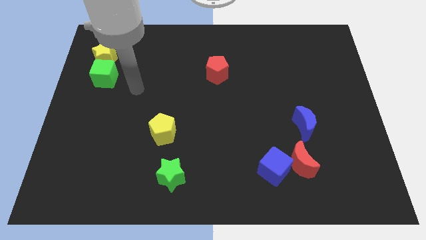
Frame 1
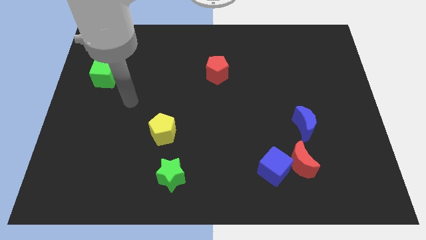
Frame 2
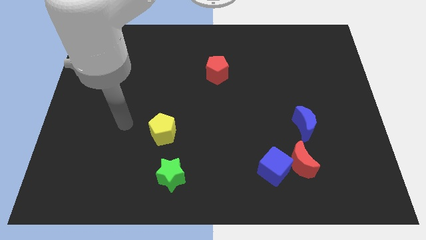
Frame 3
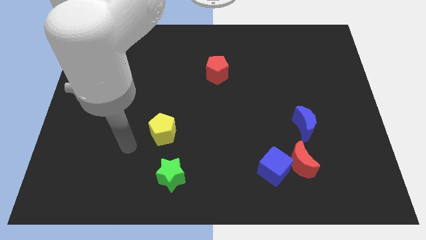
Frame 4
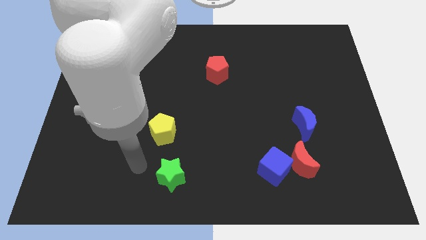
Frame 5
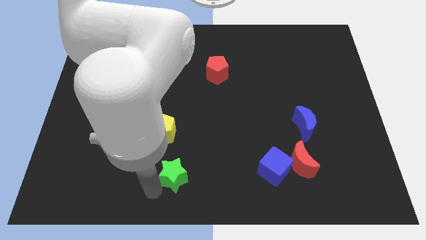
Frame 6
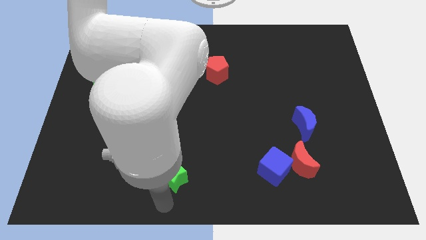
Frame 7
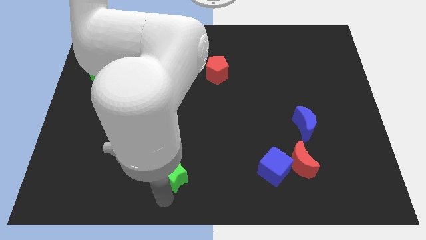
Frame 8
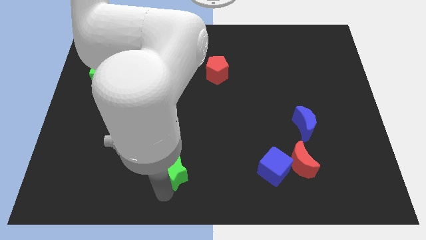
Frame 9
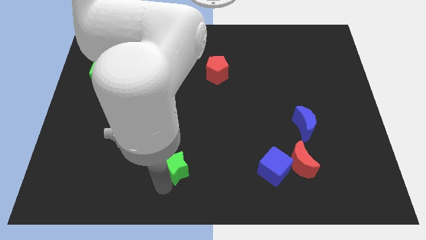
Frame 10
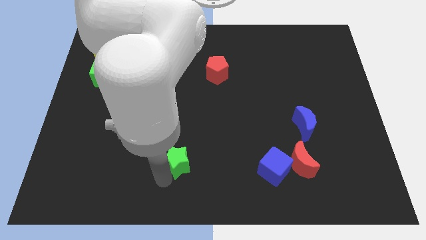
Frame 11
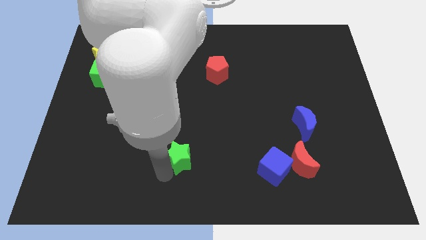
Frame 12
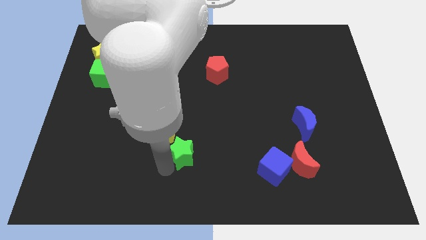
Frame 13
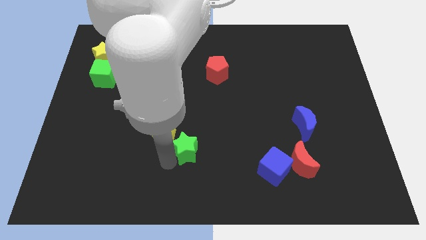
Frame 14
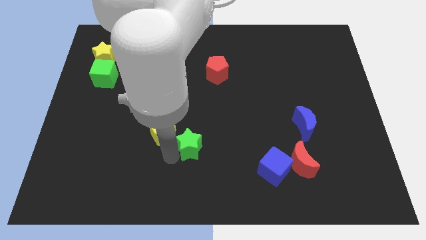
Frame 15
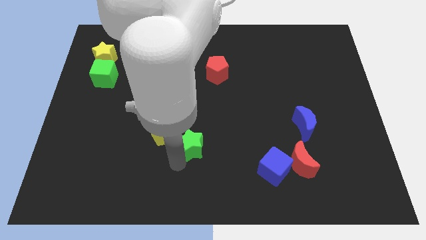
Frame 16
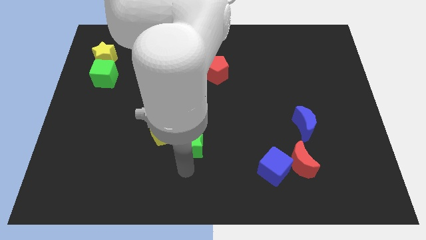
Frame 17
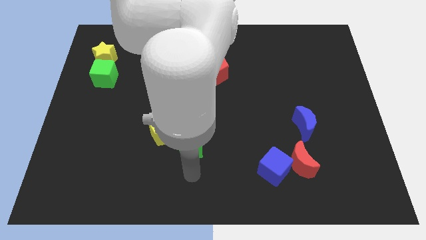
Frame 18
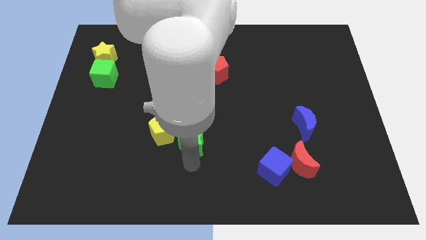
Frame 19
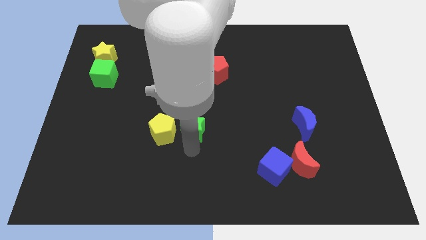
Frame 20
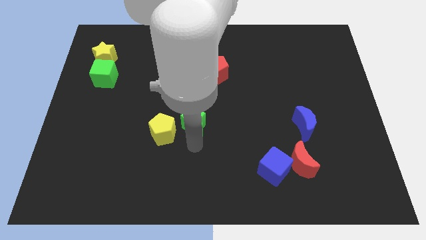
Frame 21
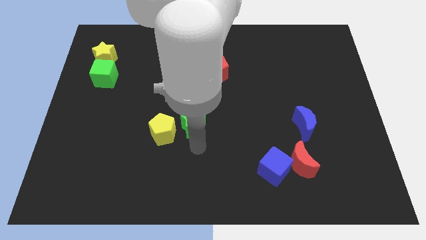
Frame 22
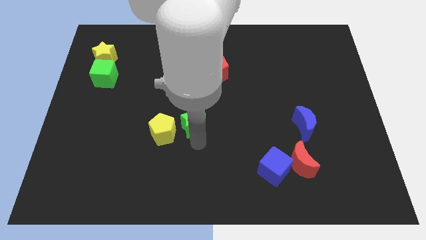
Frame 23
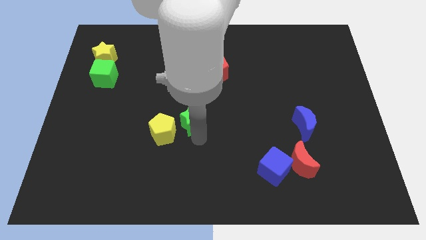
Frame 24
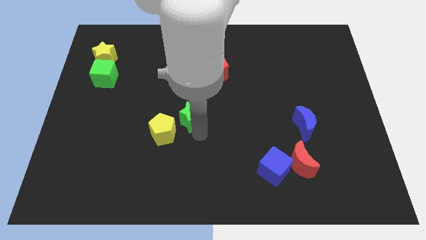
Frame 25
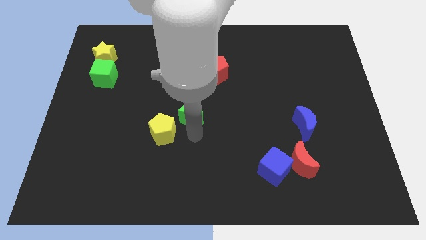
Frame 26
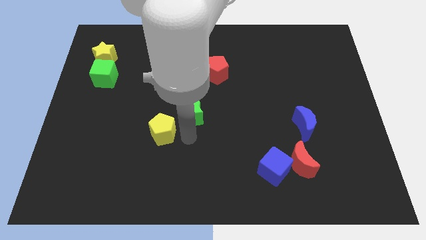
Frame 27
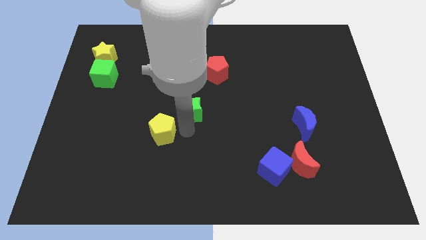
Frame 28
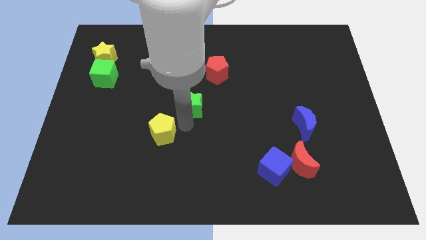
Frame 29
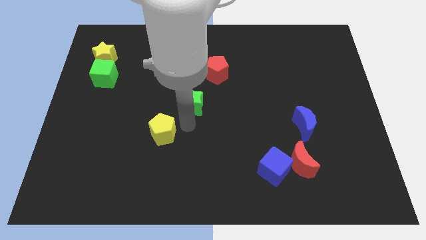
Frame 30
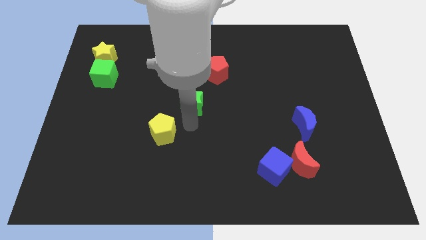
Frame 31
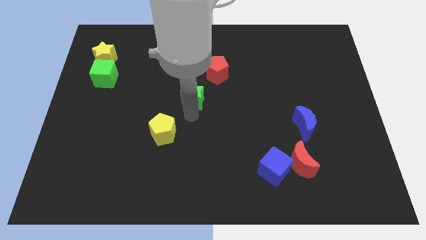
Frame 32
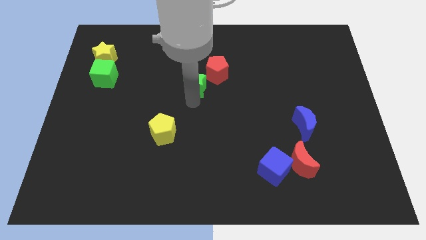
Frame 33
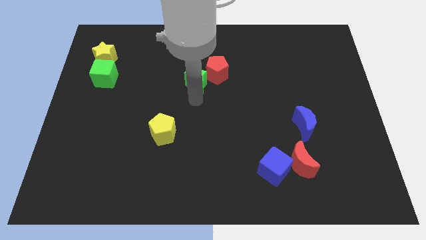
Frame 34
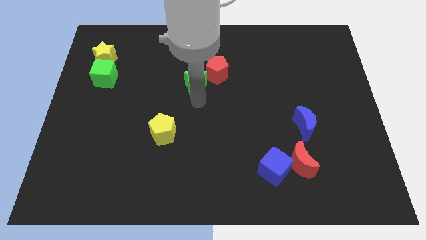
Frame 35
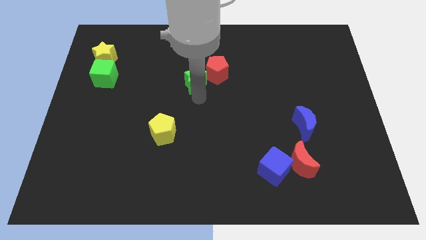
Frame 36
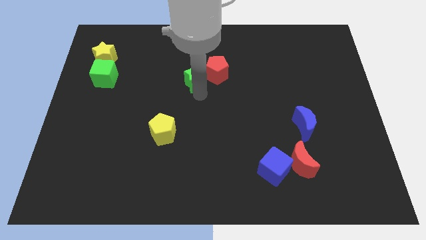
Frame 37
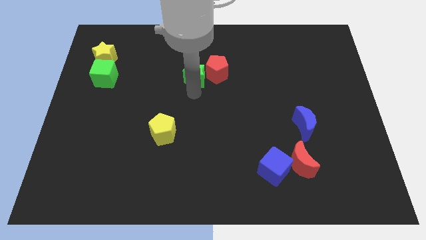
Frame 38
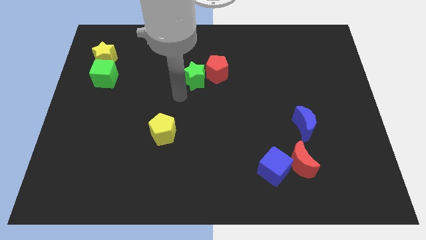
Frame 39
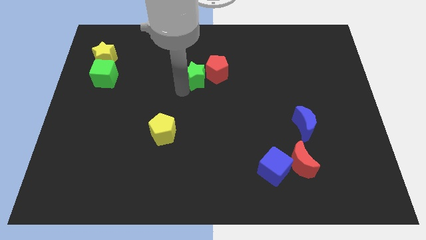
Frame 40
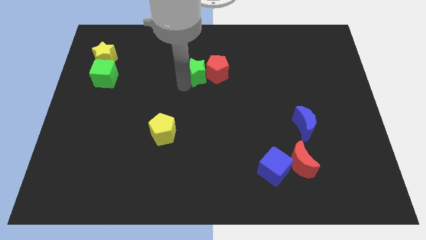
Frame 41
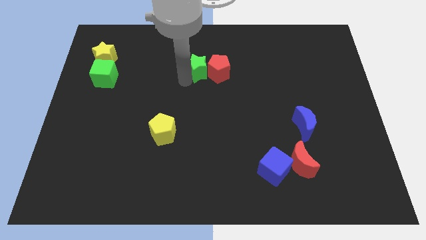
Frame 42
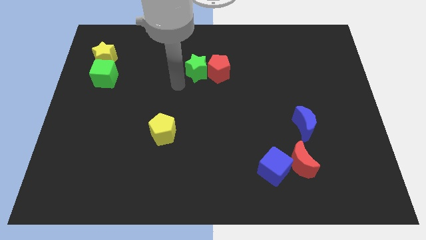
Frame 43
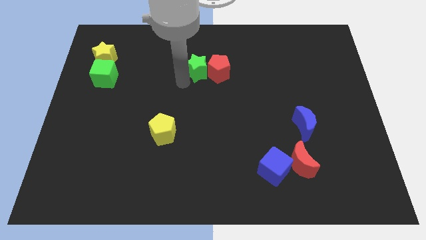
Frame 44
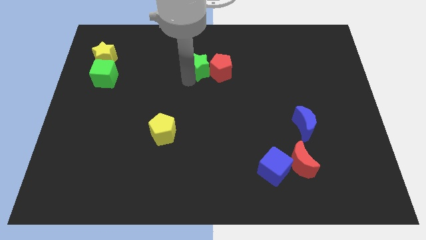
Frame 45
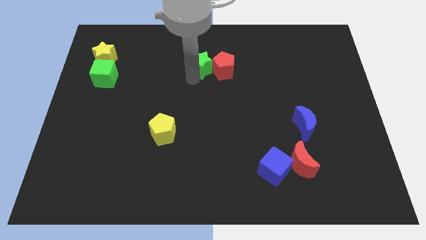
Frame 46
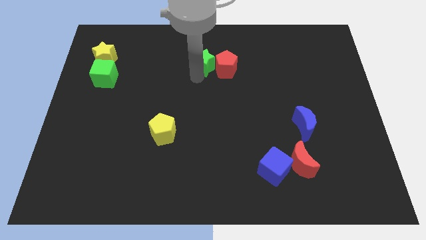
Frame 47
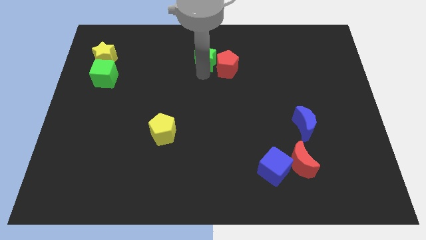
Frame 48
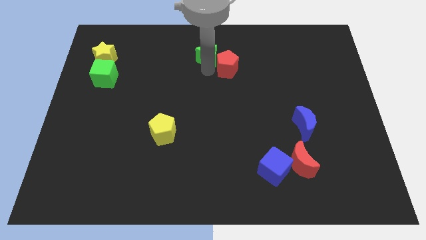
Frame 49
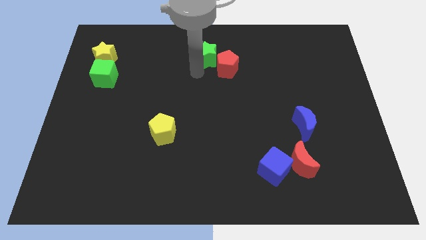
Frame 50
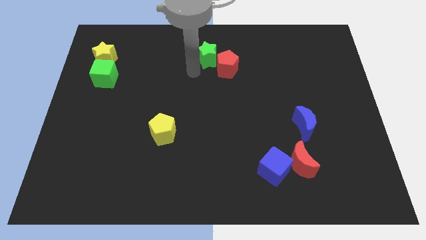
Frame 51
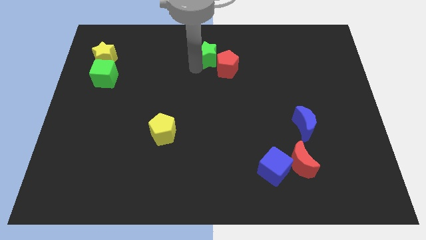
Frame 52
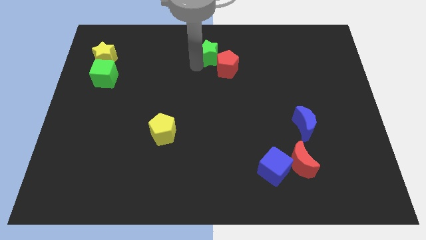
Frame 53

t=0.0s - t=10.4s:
move the green star to the top side

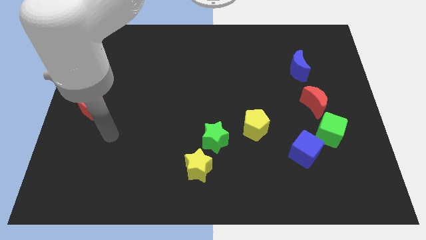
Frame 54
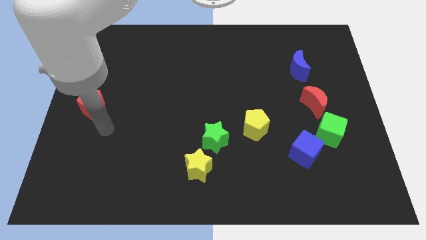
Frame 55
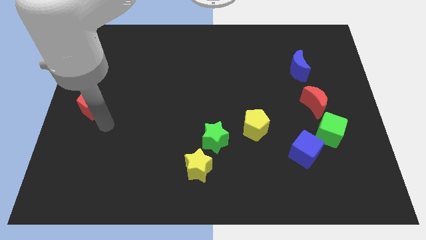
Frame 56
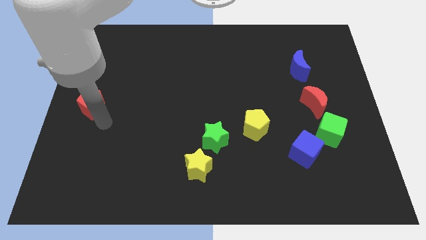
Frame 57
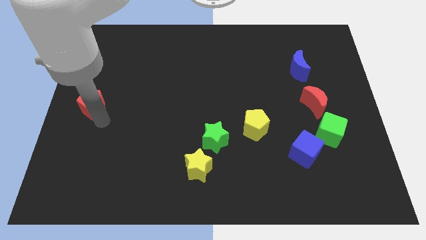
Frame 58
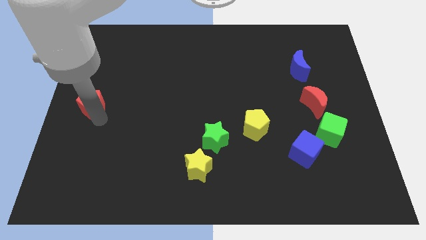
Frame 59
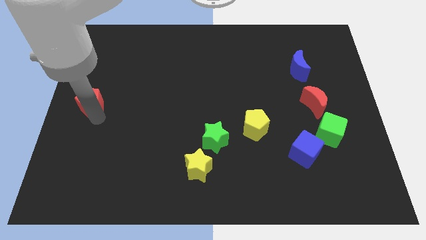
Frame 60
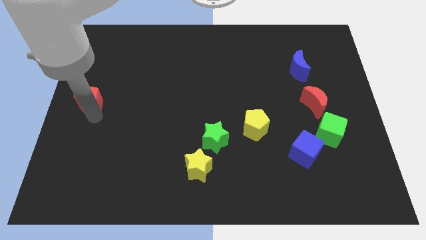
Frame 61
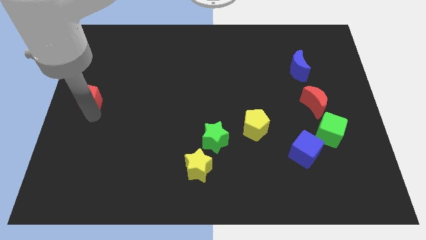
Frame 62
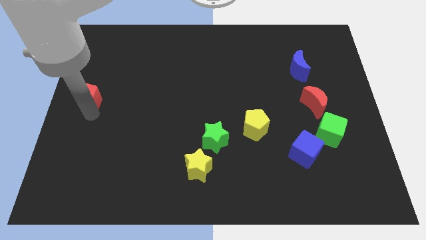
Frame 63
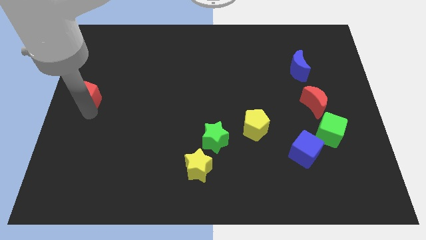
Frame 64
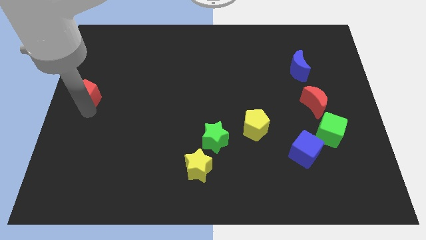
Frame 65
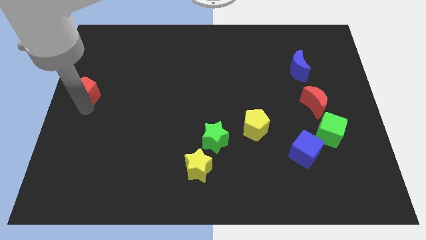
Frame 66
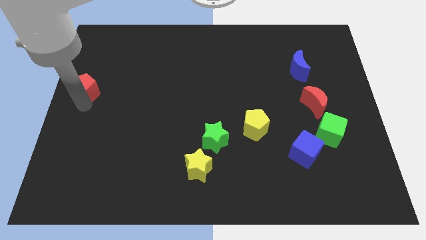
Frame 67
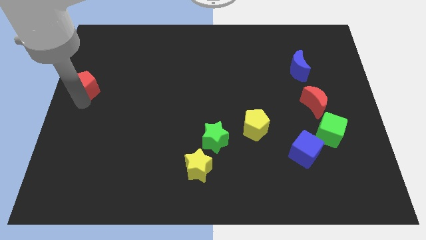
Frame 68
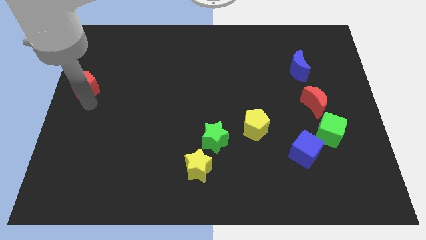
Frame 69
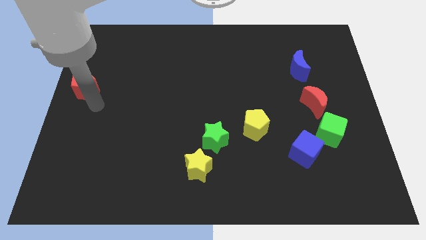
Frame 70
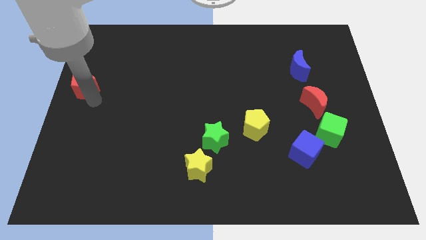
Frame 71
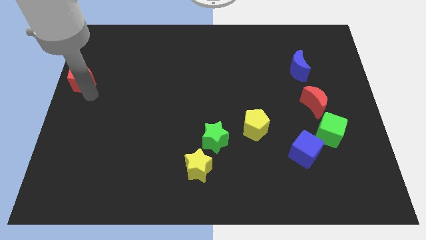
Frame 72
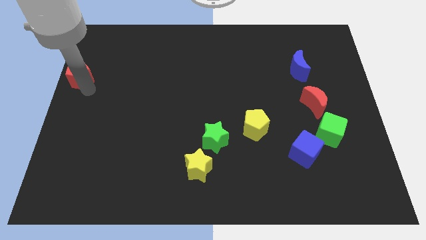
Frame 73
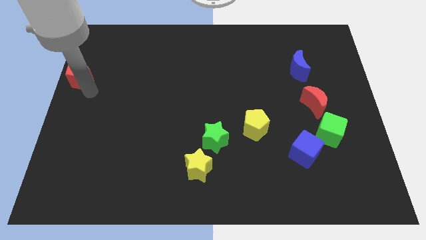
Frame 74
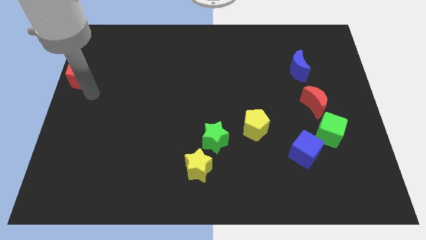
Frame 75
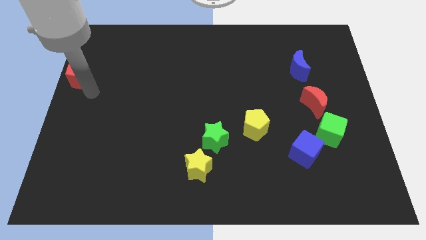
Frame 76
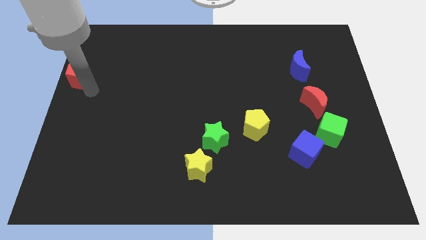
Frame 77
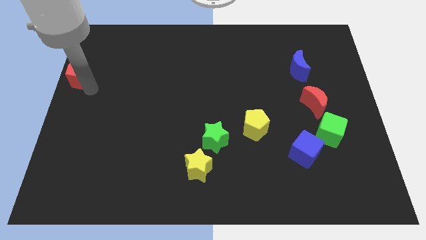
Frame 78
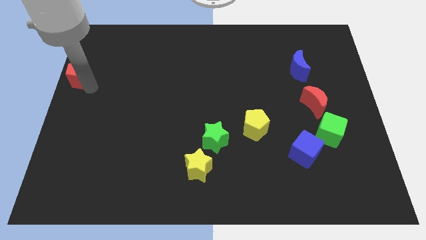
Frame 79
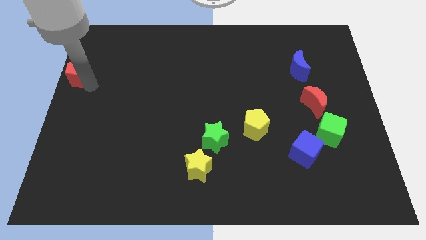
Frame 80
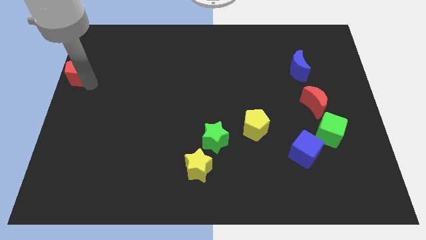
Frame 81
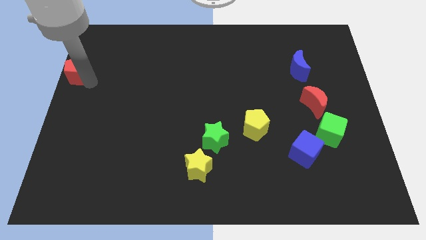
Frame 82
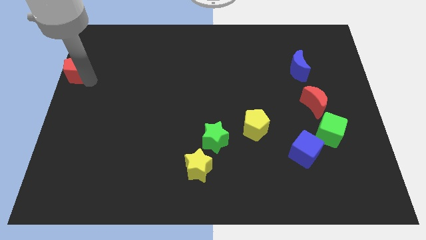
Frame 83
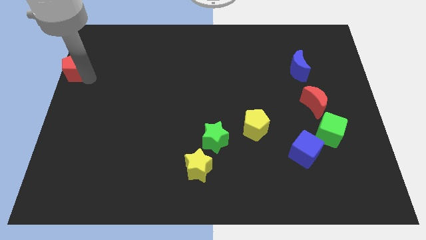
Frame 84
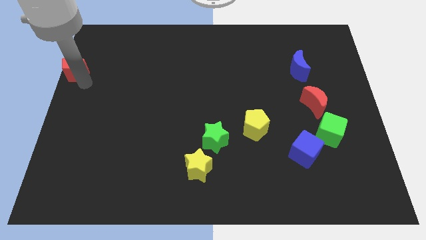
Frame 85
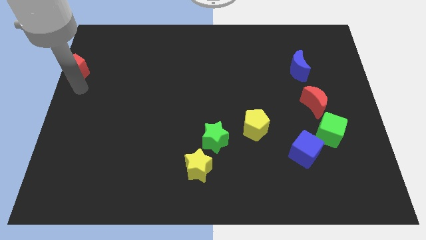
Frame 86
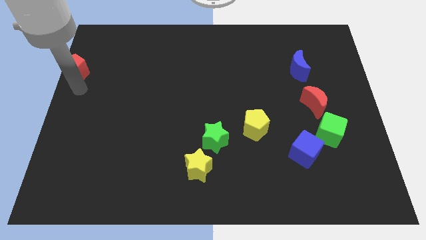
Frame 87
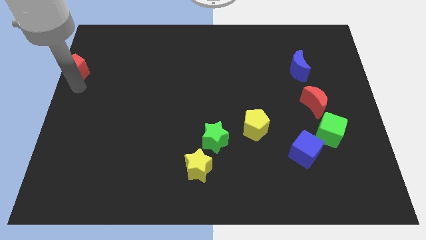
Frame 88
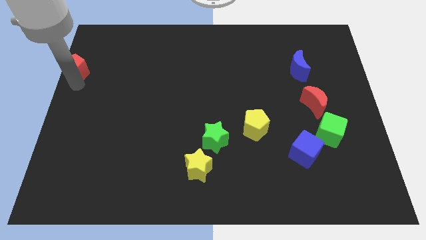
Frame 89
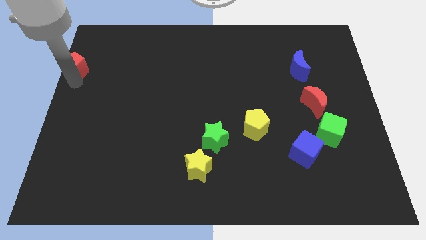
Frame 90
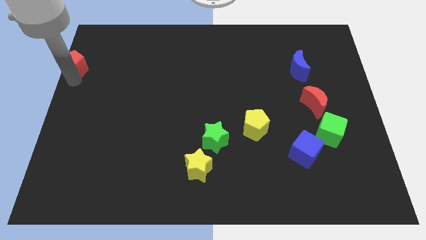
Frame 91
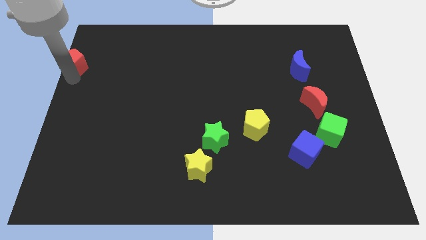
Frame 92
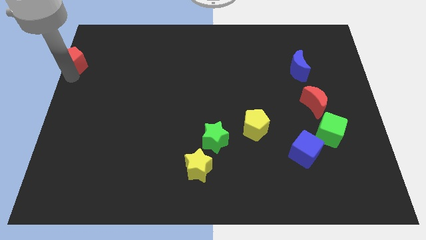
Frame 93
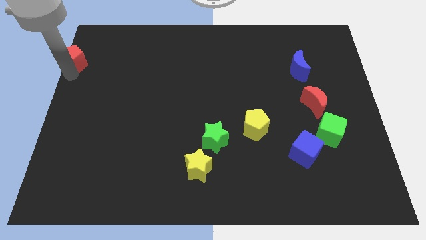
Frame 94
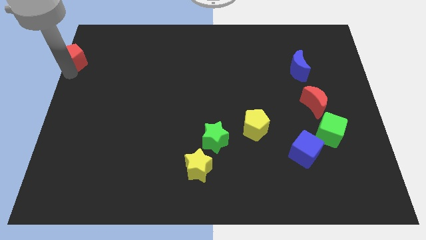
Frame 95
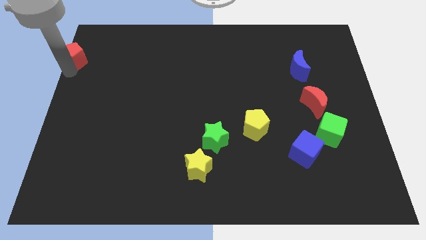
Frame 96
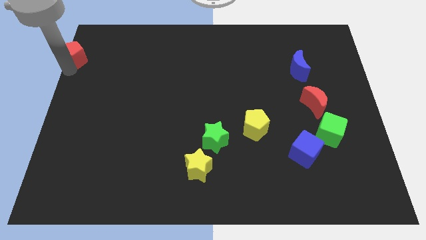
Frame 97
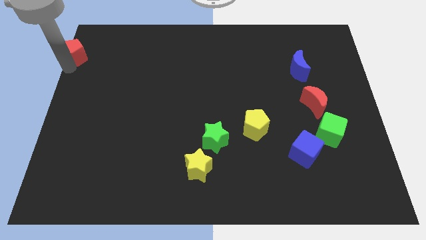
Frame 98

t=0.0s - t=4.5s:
move the red pentagon to the top left
